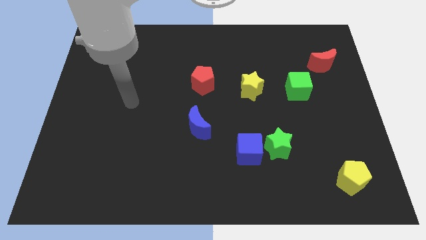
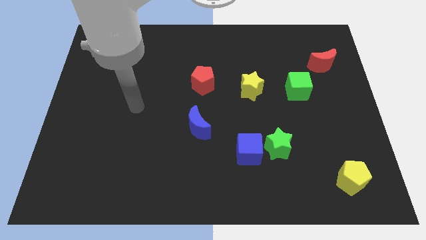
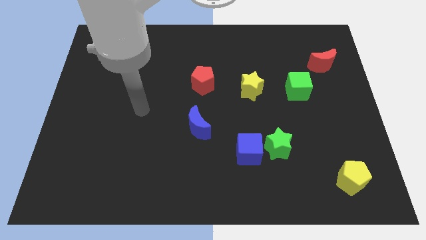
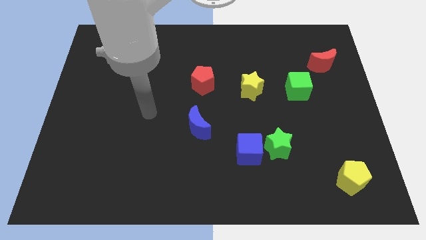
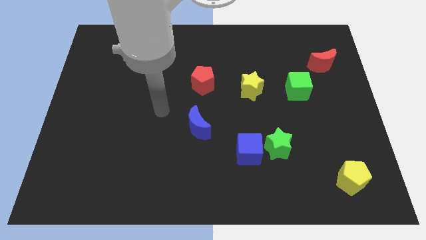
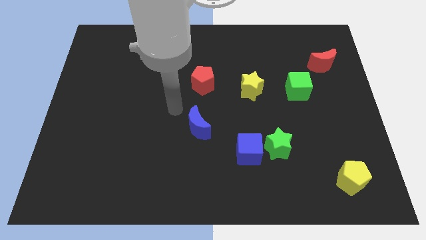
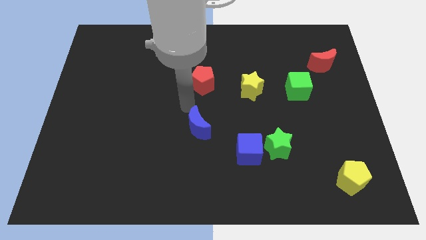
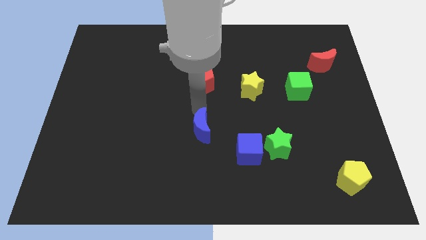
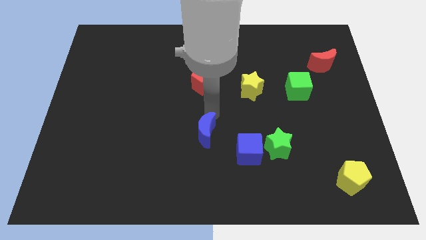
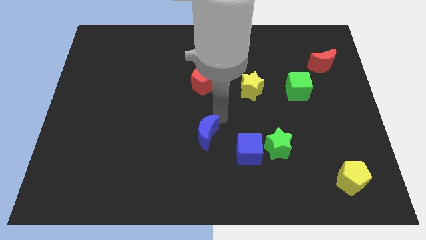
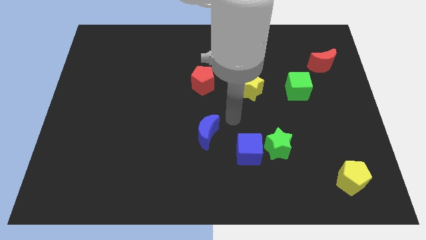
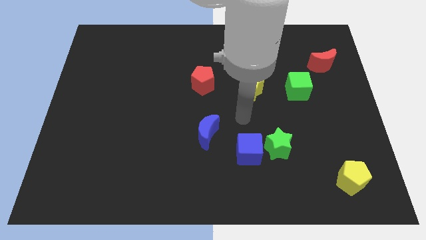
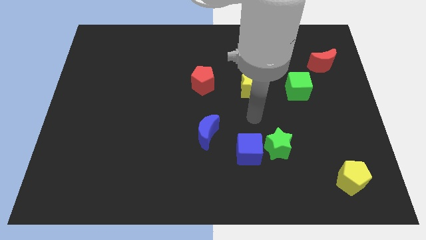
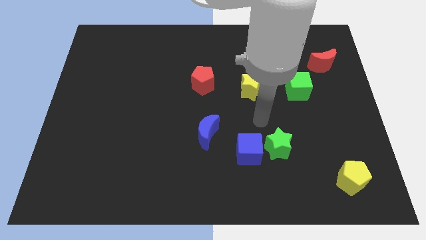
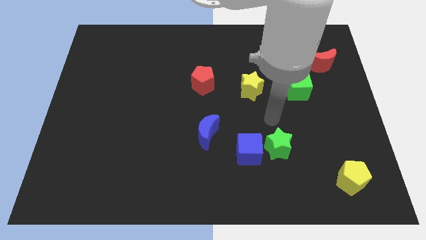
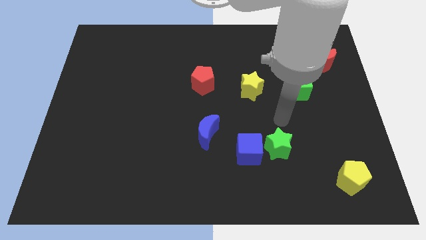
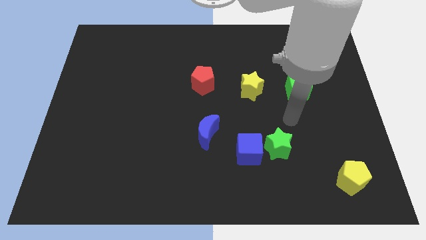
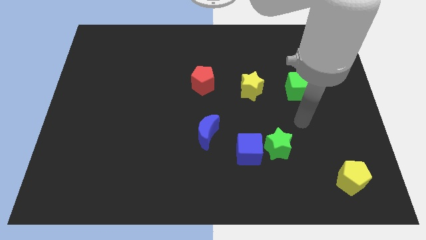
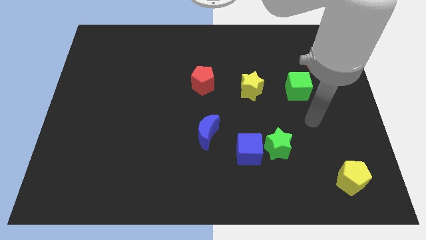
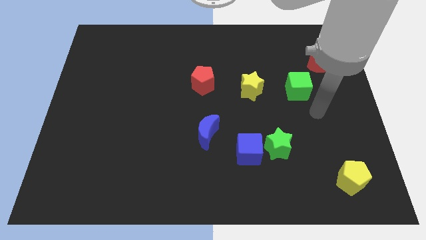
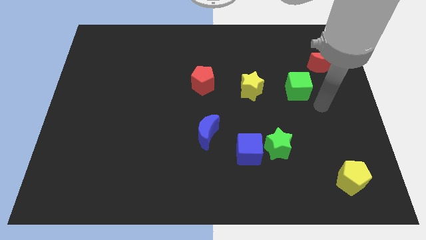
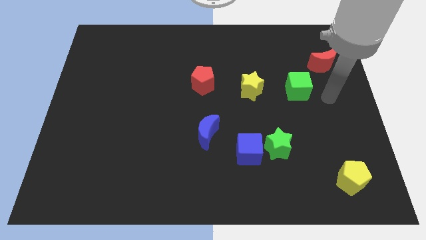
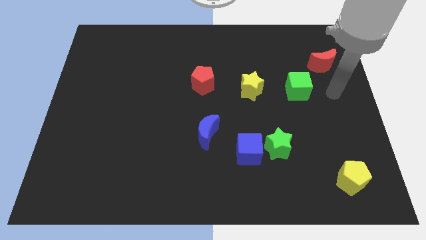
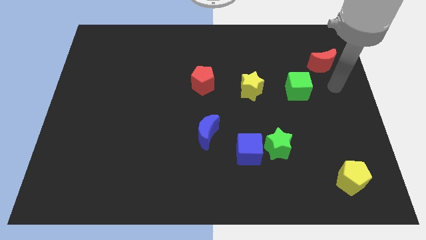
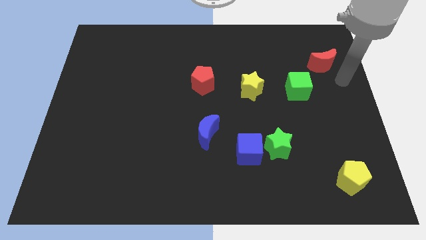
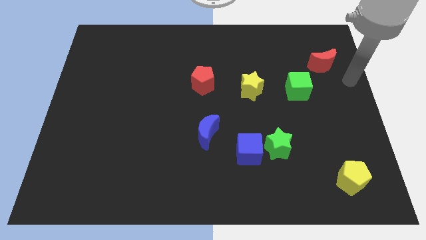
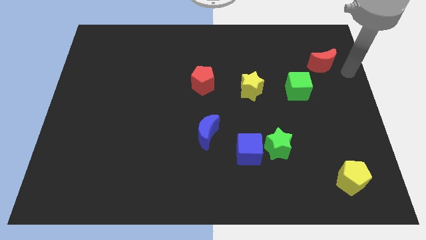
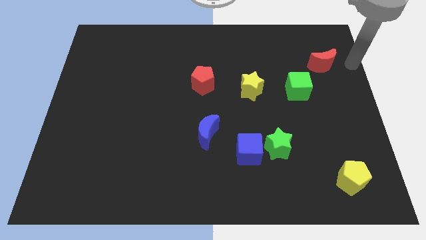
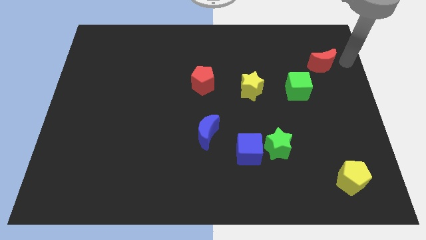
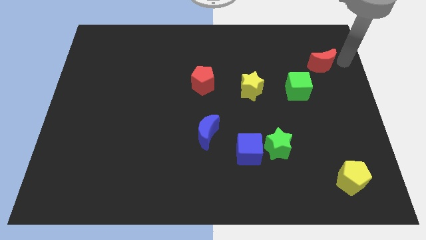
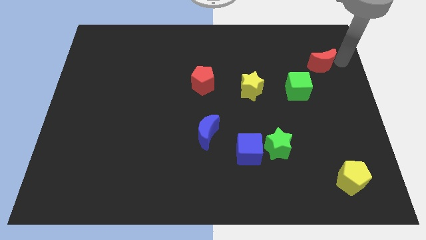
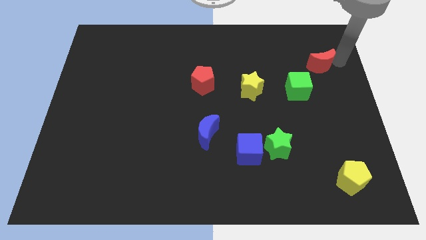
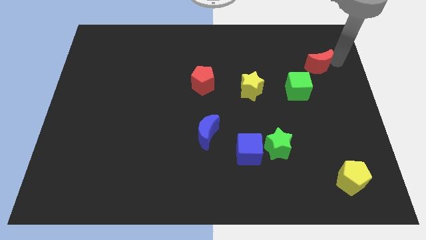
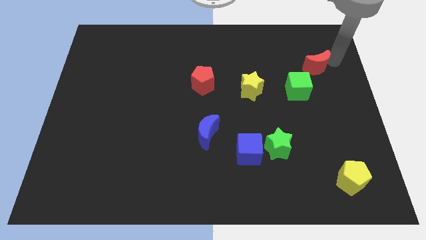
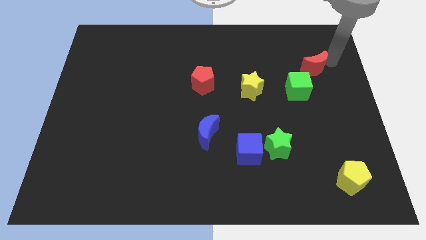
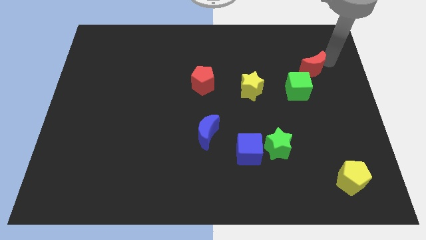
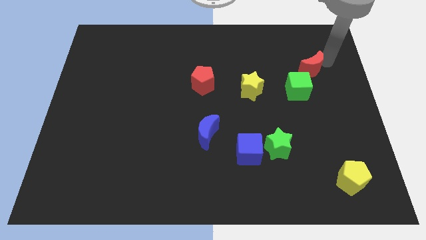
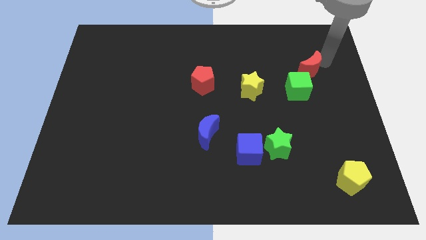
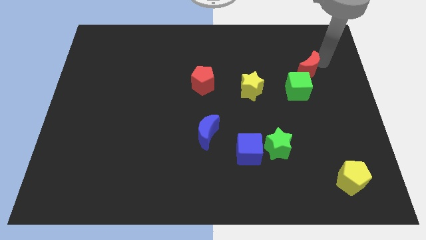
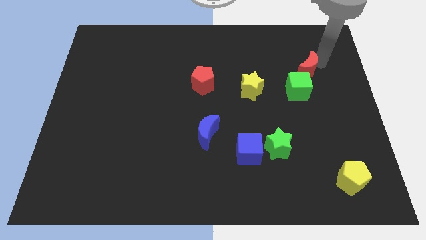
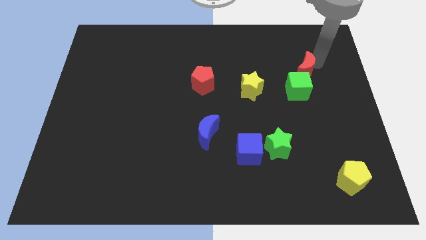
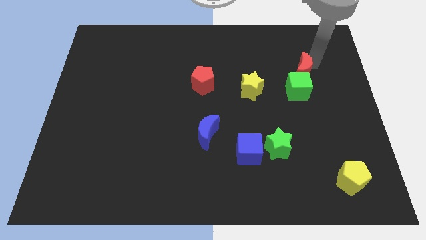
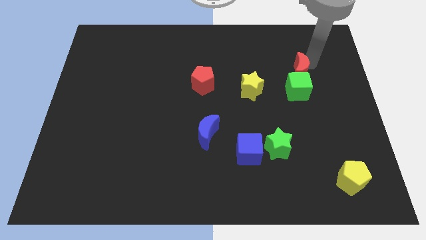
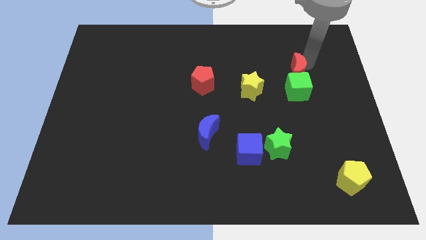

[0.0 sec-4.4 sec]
move the red moon somewhat left

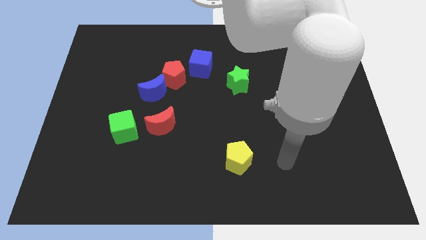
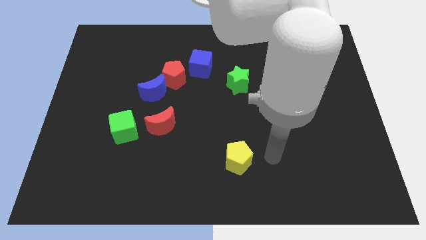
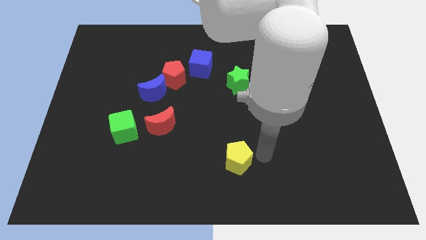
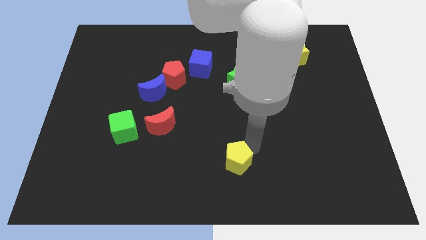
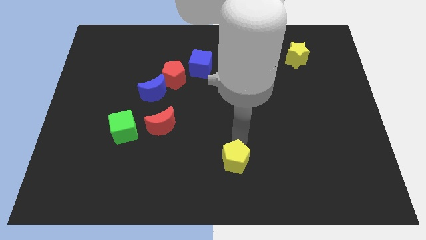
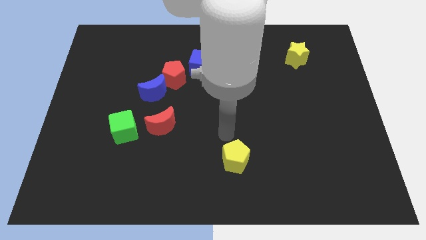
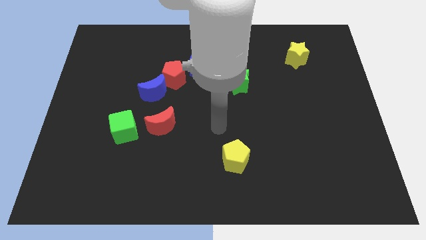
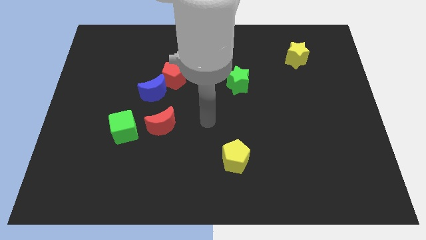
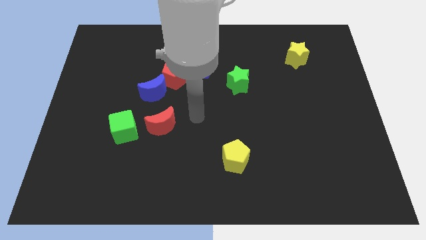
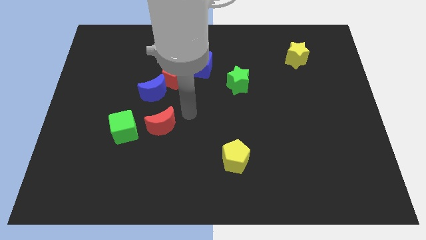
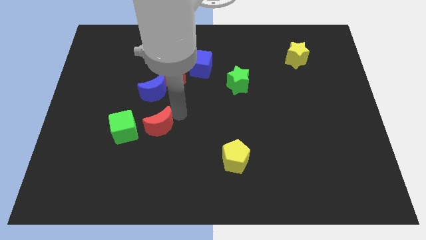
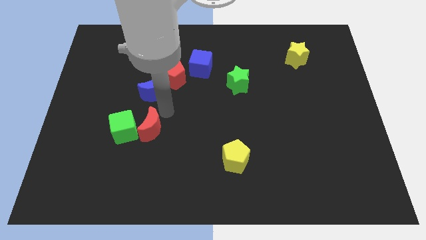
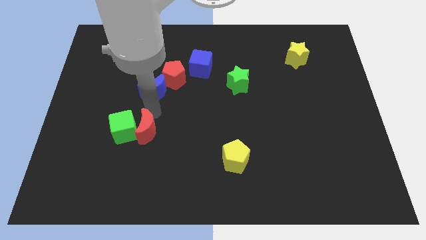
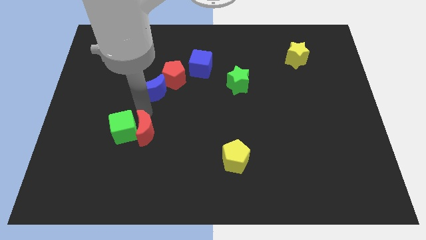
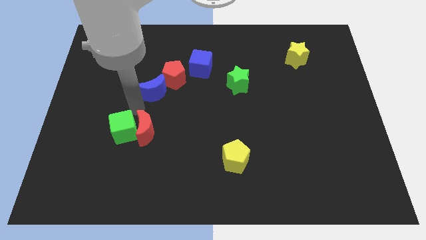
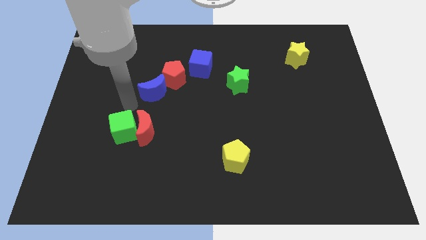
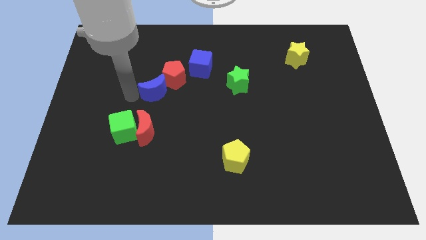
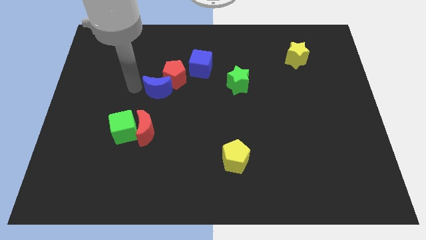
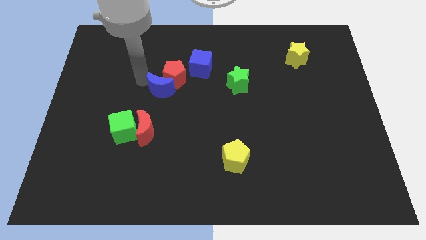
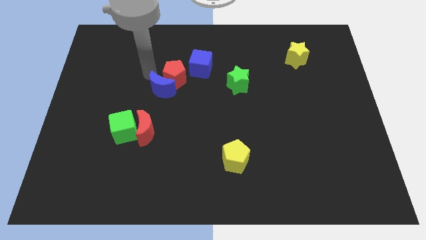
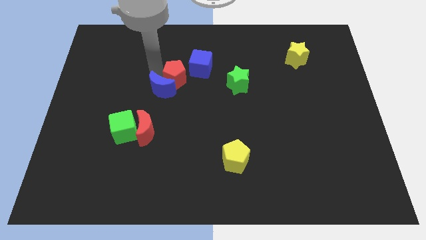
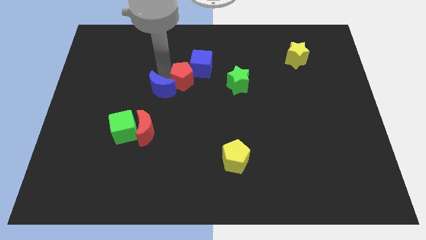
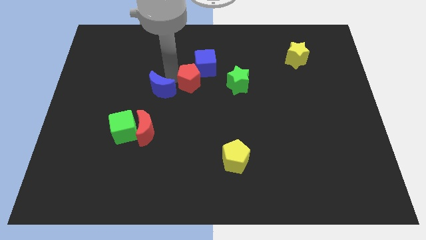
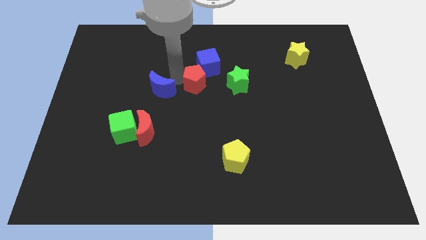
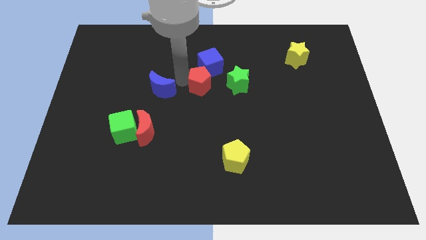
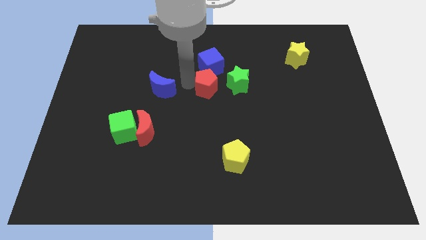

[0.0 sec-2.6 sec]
slide the red pentagon slightly right

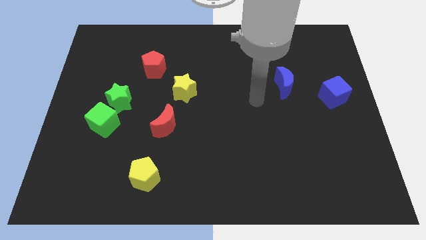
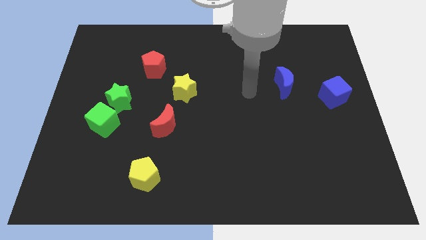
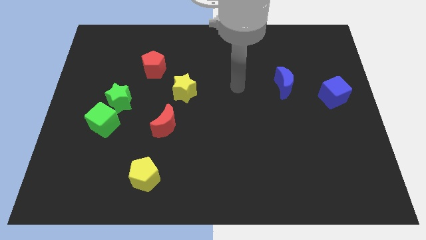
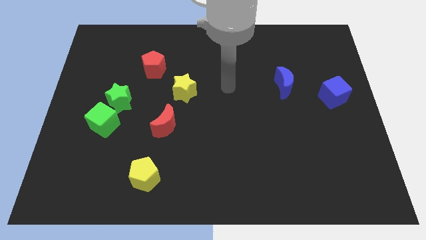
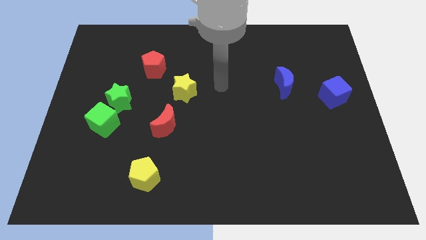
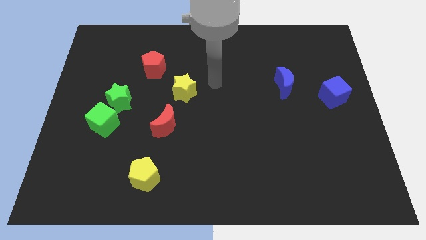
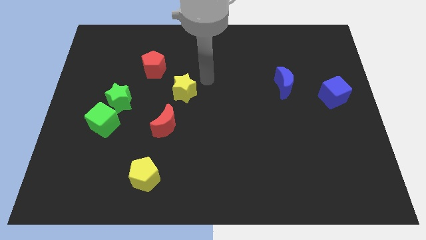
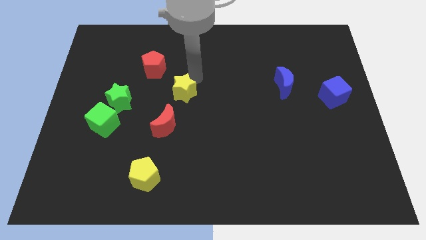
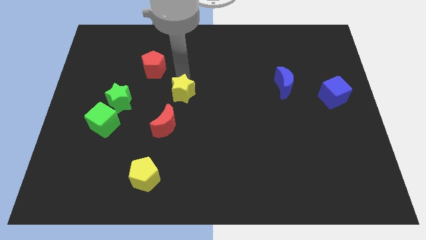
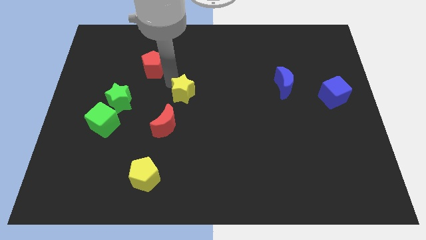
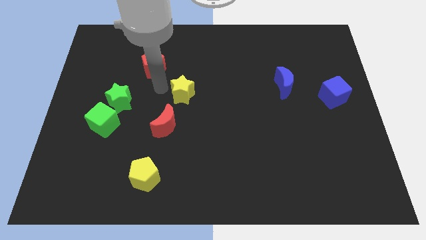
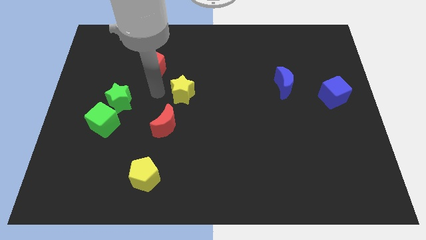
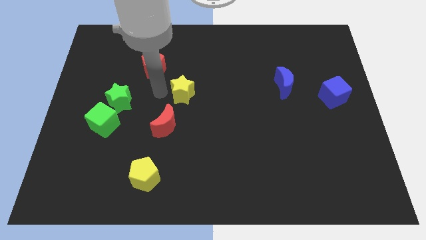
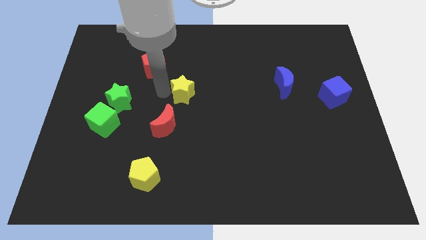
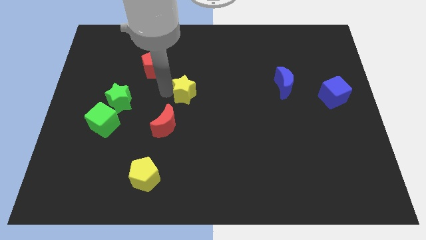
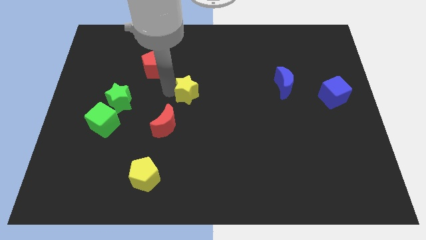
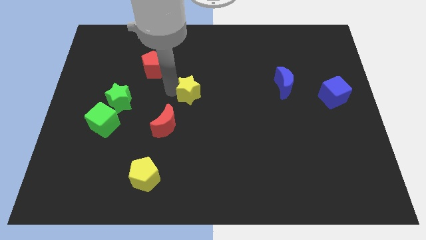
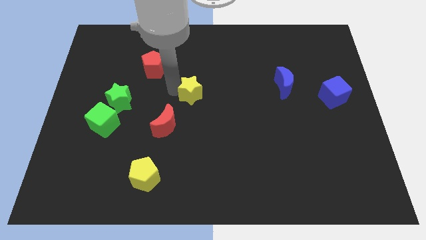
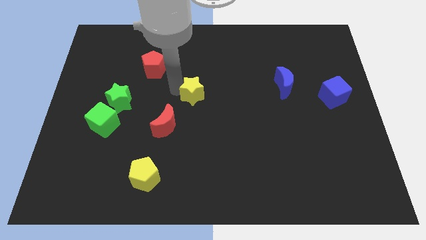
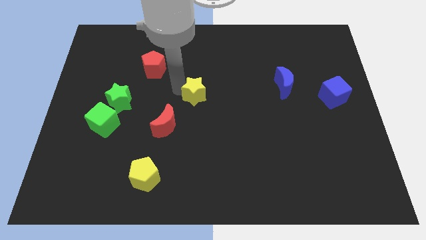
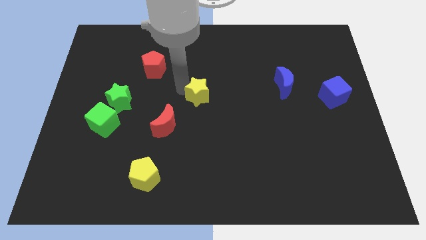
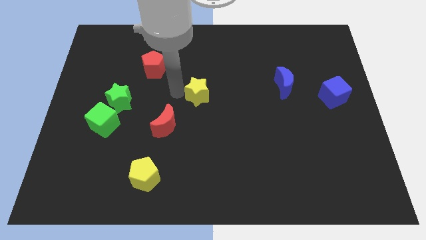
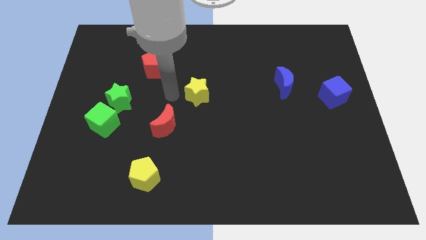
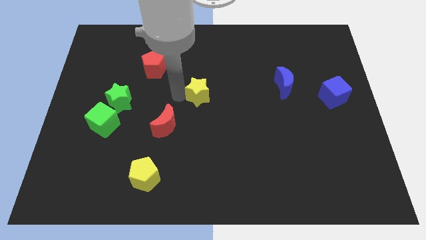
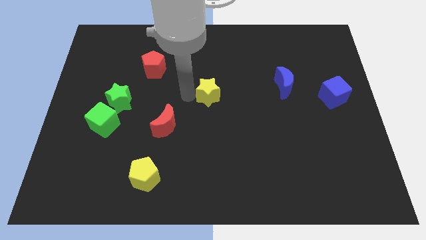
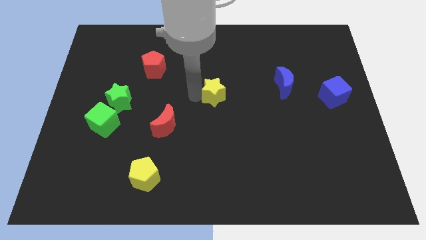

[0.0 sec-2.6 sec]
slide the yellow star a little bit right
